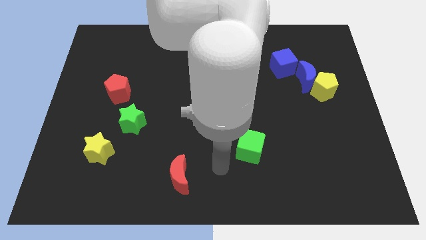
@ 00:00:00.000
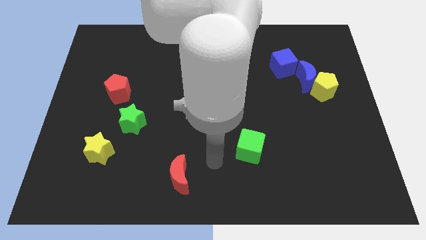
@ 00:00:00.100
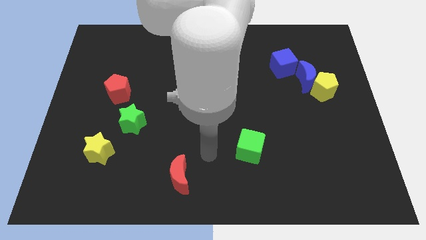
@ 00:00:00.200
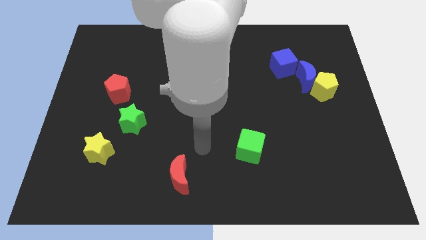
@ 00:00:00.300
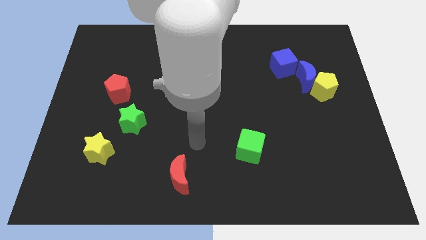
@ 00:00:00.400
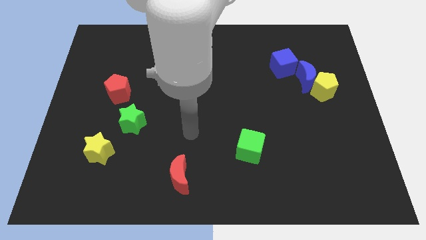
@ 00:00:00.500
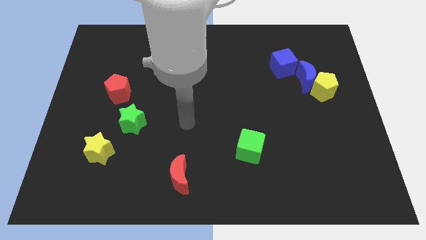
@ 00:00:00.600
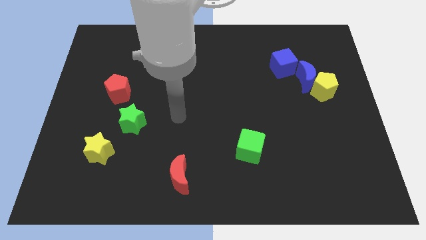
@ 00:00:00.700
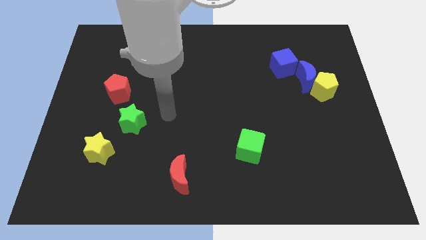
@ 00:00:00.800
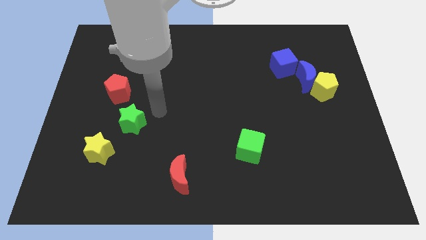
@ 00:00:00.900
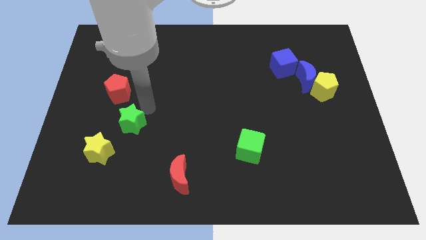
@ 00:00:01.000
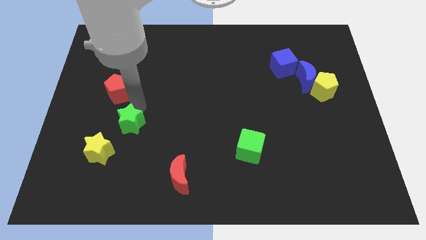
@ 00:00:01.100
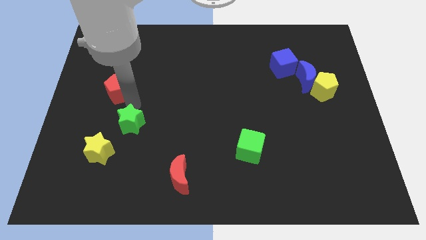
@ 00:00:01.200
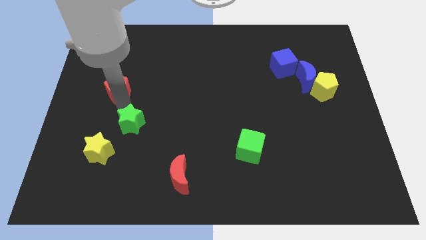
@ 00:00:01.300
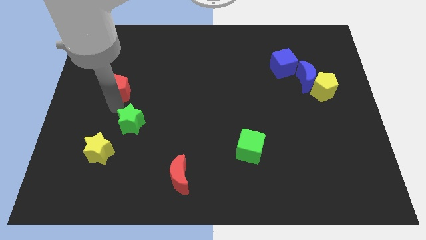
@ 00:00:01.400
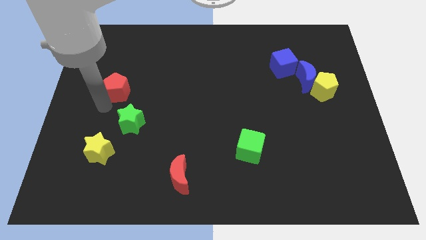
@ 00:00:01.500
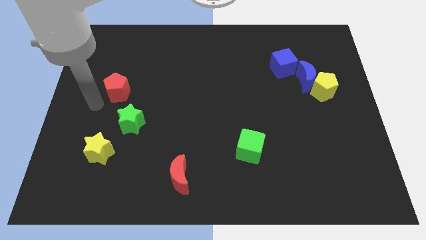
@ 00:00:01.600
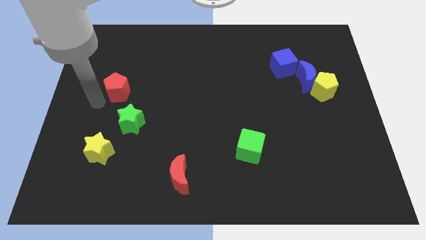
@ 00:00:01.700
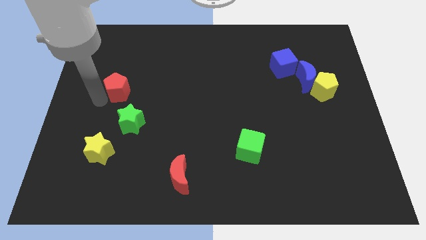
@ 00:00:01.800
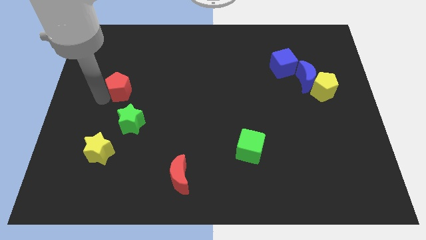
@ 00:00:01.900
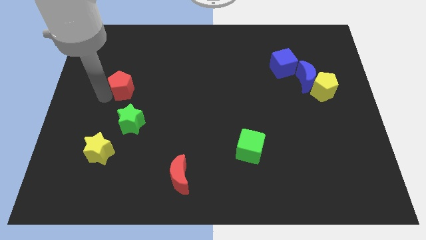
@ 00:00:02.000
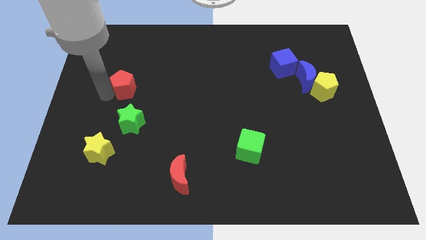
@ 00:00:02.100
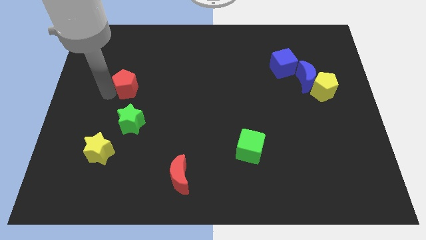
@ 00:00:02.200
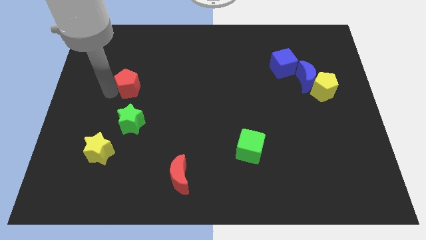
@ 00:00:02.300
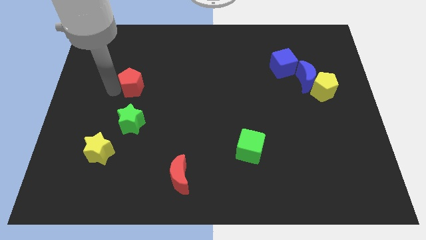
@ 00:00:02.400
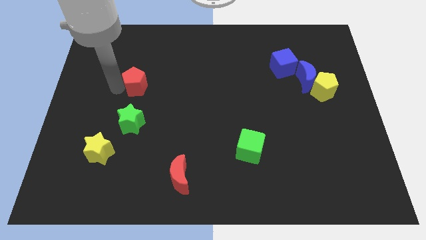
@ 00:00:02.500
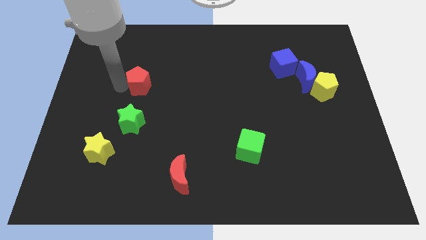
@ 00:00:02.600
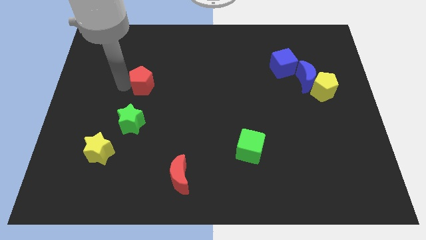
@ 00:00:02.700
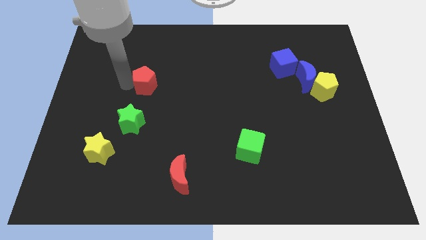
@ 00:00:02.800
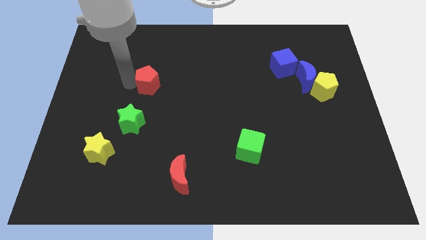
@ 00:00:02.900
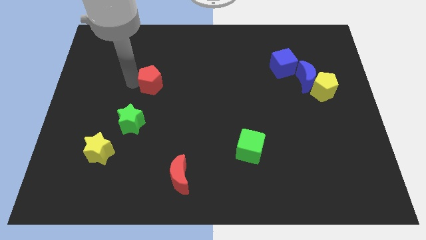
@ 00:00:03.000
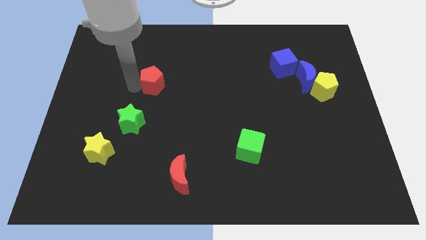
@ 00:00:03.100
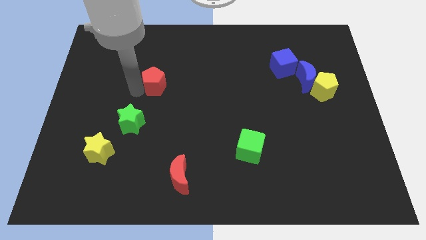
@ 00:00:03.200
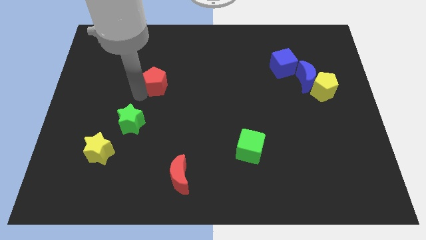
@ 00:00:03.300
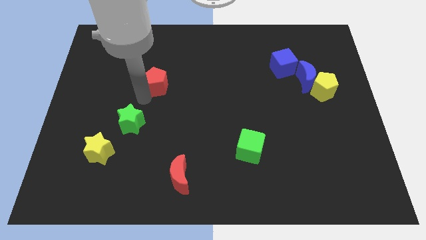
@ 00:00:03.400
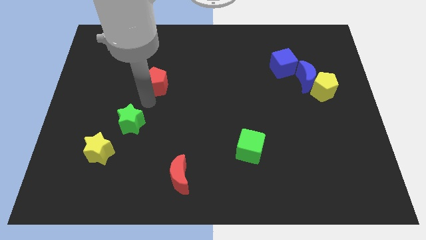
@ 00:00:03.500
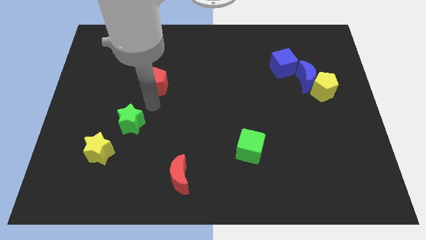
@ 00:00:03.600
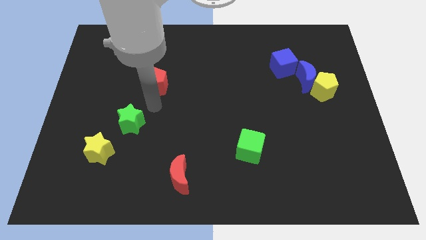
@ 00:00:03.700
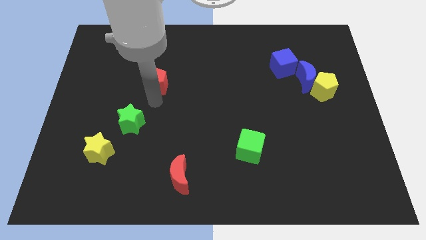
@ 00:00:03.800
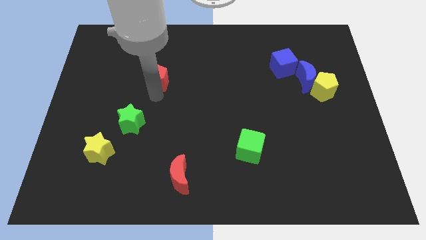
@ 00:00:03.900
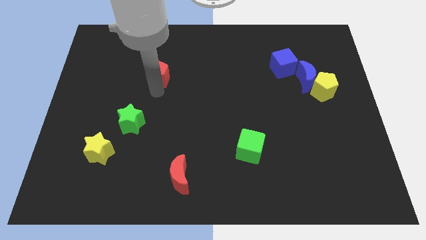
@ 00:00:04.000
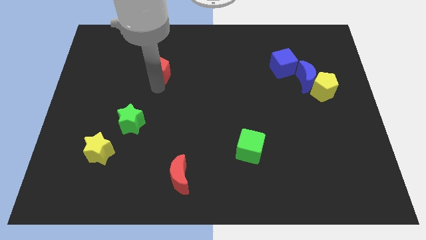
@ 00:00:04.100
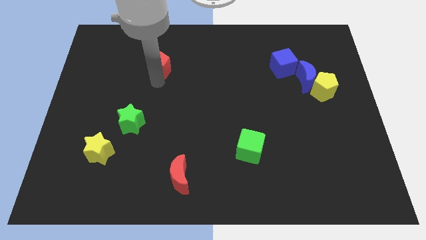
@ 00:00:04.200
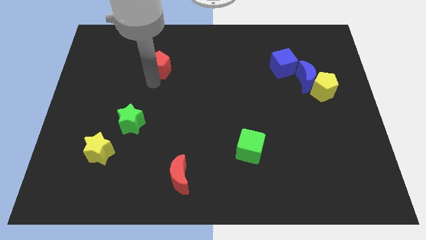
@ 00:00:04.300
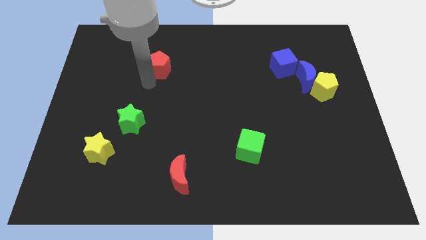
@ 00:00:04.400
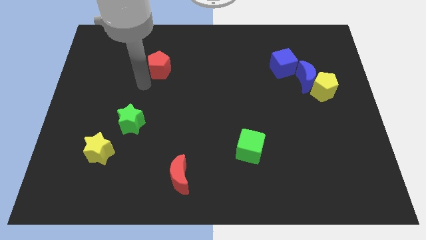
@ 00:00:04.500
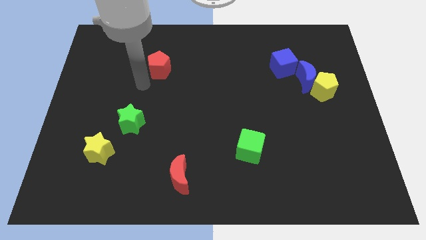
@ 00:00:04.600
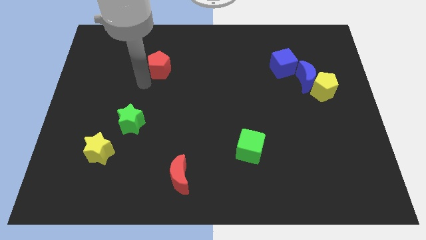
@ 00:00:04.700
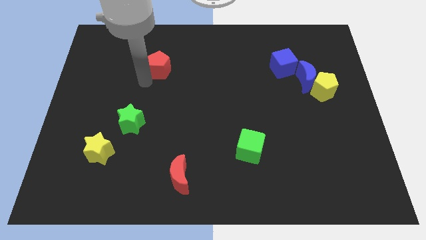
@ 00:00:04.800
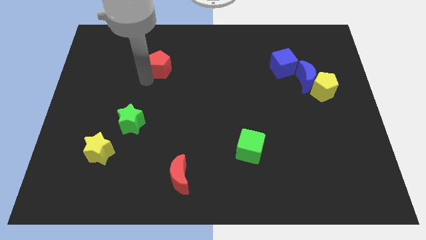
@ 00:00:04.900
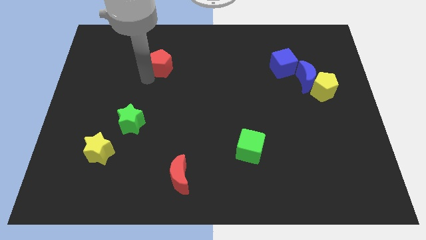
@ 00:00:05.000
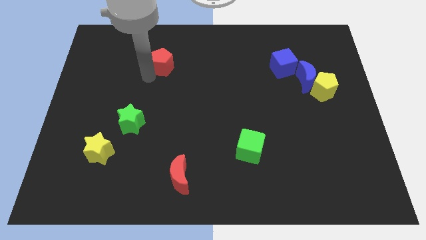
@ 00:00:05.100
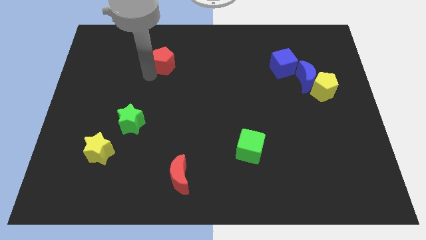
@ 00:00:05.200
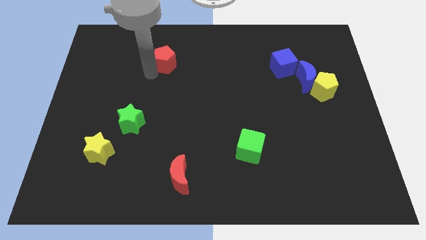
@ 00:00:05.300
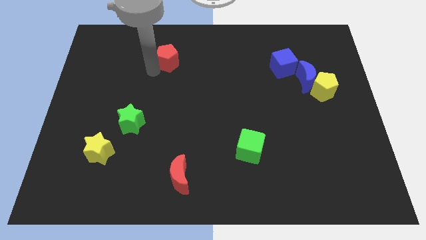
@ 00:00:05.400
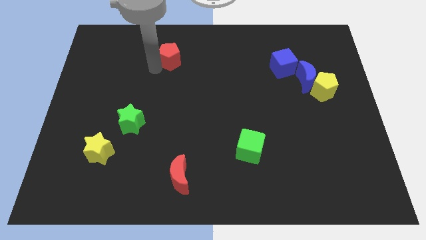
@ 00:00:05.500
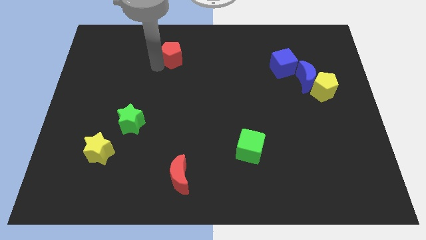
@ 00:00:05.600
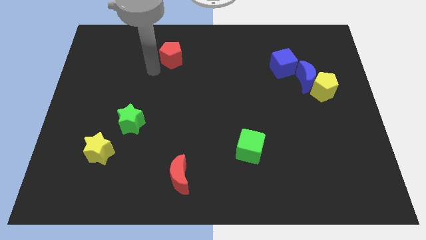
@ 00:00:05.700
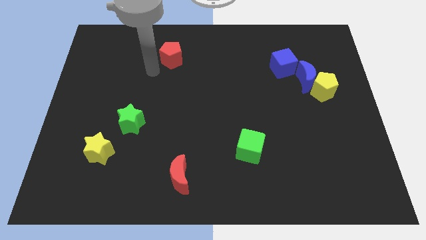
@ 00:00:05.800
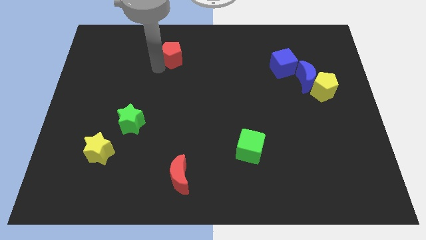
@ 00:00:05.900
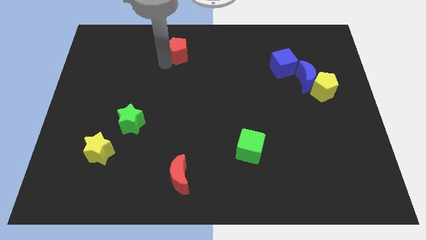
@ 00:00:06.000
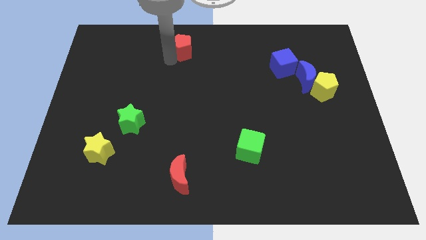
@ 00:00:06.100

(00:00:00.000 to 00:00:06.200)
slide the red pentagon to the towards your base

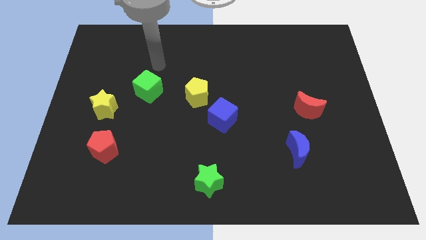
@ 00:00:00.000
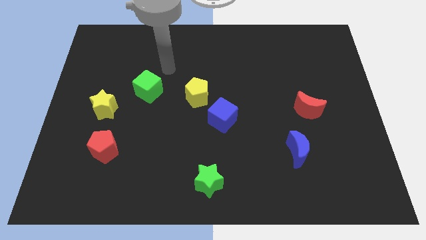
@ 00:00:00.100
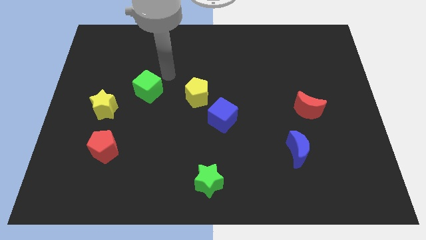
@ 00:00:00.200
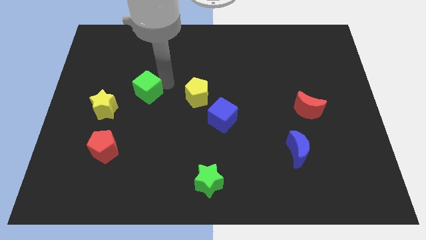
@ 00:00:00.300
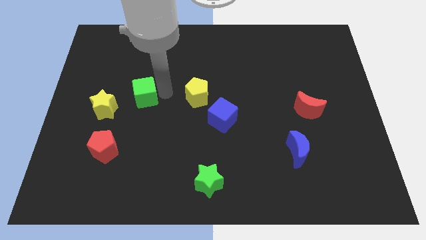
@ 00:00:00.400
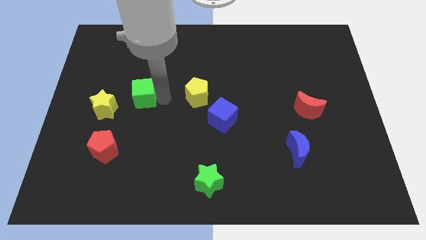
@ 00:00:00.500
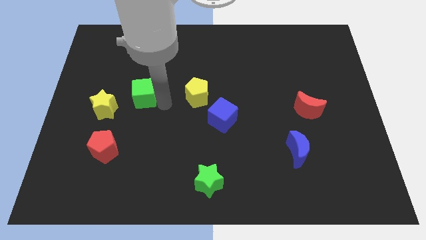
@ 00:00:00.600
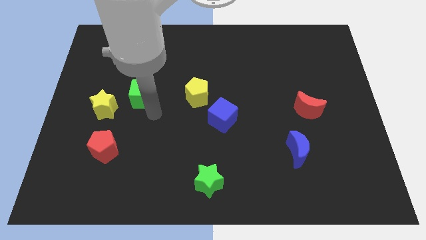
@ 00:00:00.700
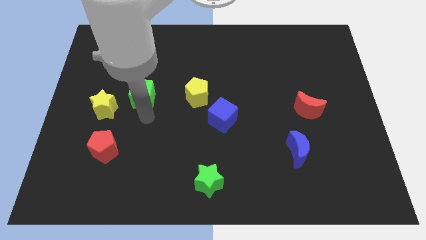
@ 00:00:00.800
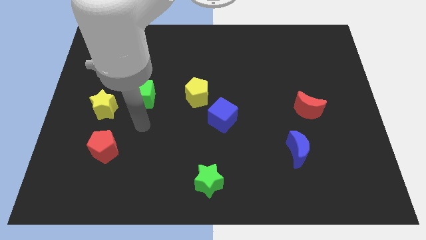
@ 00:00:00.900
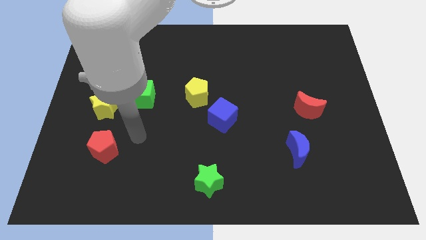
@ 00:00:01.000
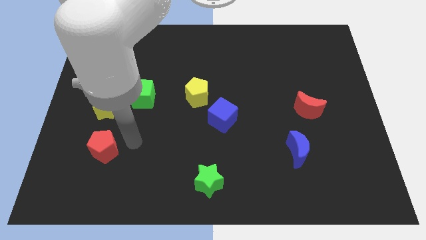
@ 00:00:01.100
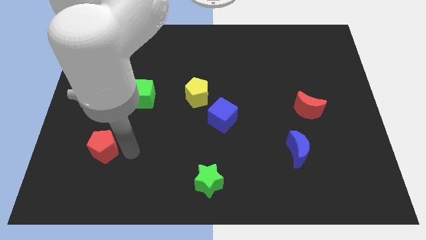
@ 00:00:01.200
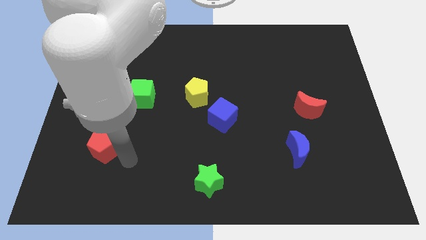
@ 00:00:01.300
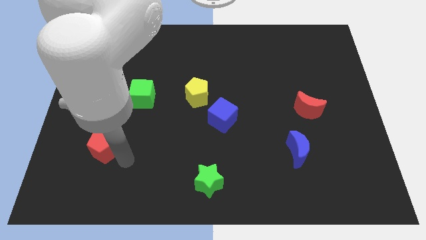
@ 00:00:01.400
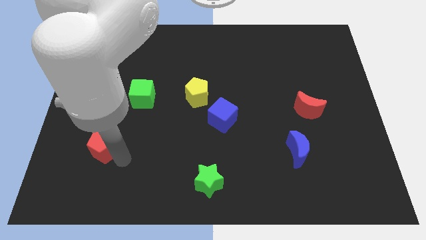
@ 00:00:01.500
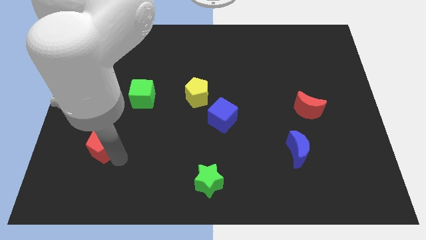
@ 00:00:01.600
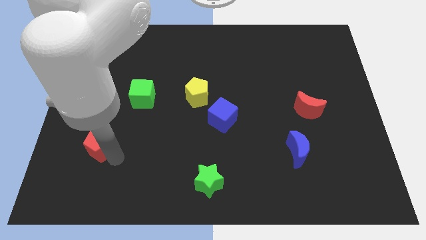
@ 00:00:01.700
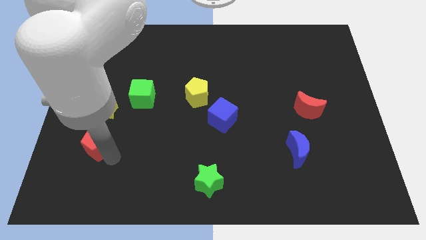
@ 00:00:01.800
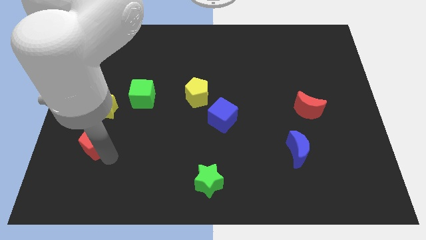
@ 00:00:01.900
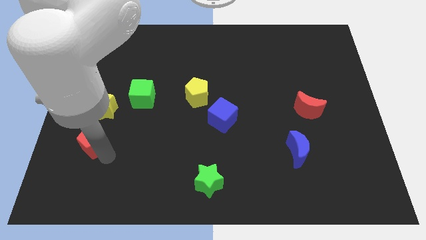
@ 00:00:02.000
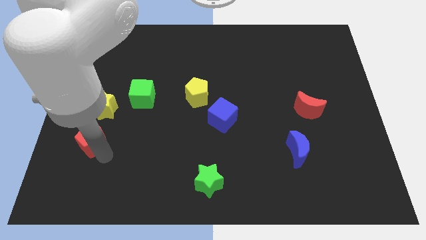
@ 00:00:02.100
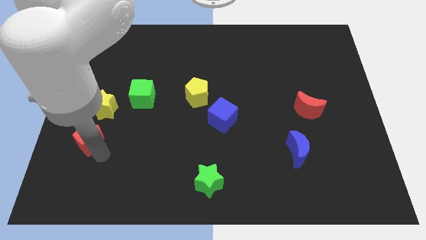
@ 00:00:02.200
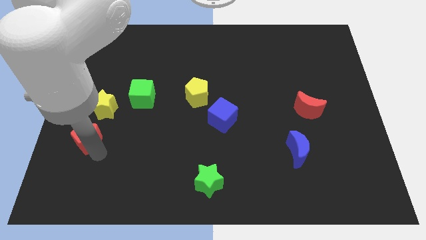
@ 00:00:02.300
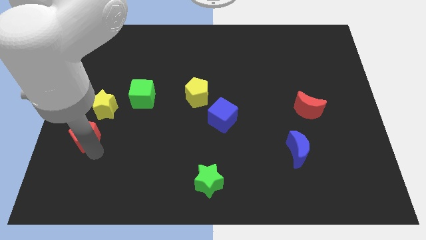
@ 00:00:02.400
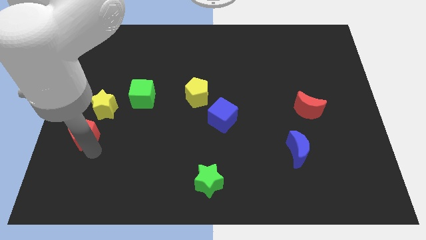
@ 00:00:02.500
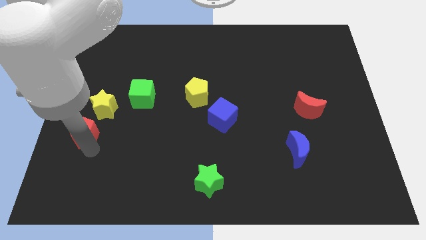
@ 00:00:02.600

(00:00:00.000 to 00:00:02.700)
move the red pentagon to the left side
